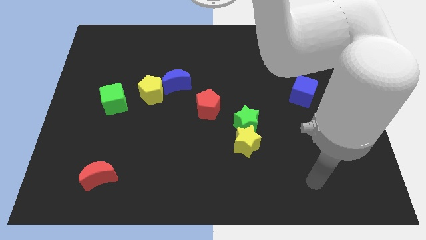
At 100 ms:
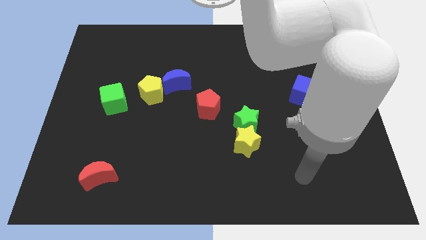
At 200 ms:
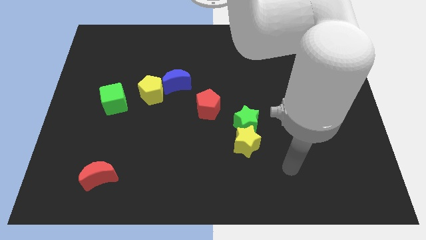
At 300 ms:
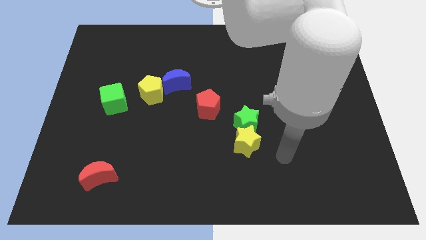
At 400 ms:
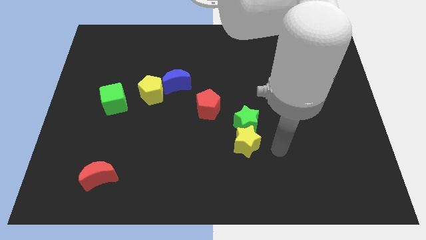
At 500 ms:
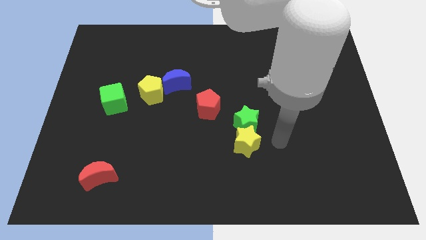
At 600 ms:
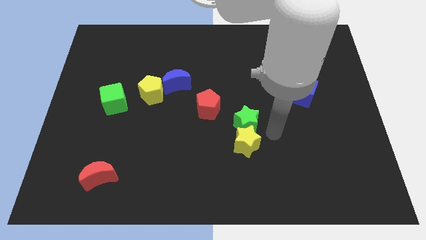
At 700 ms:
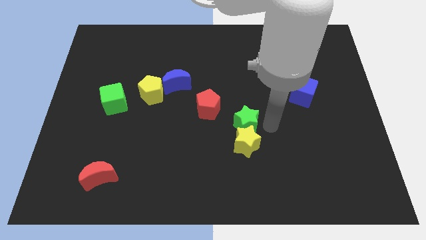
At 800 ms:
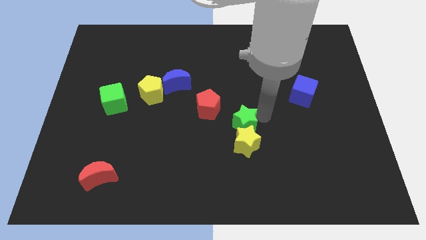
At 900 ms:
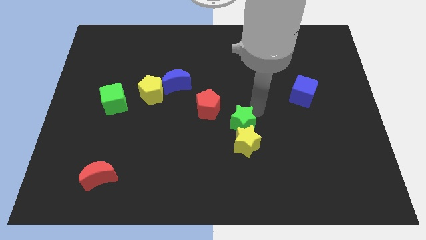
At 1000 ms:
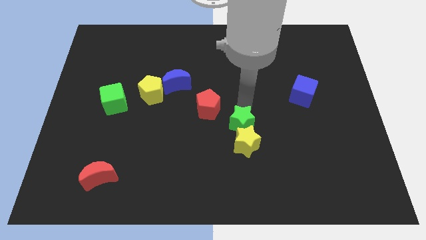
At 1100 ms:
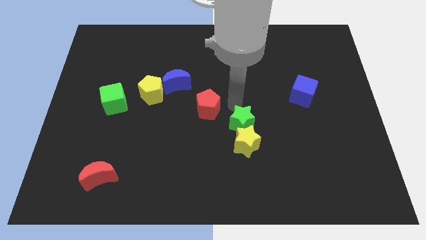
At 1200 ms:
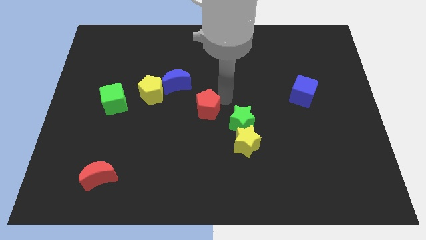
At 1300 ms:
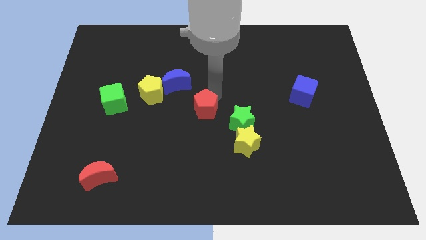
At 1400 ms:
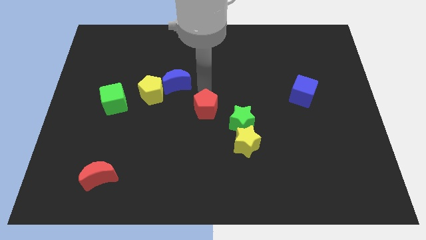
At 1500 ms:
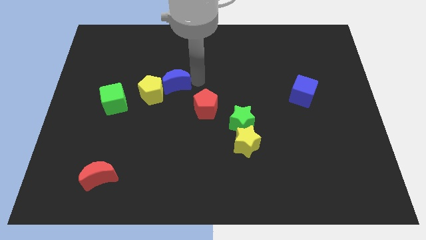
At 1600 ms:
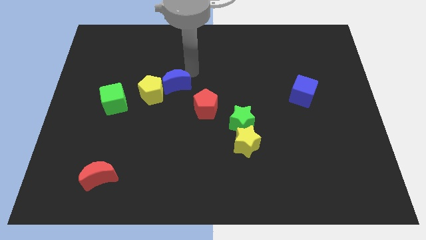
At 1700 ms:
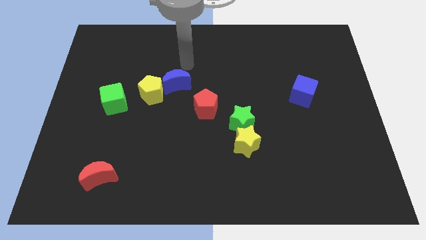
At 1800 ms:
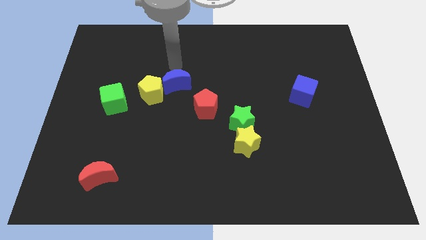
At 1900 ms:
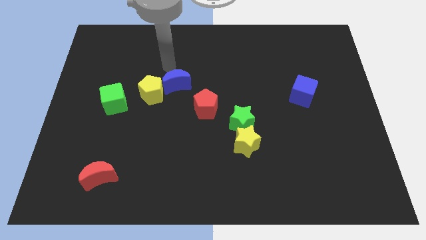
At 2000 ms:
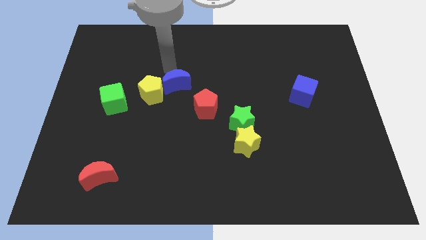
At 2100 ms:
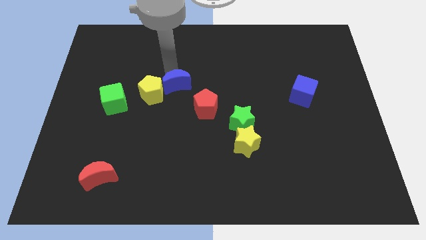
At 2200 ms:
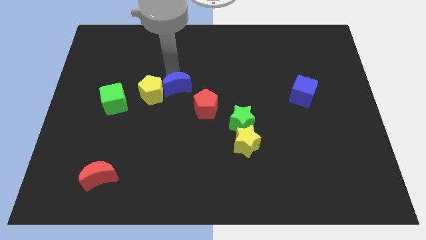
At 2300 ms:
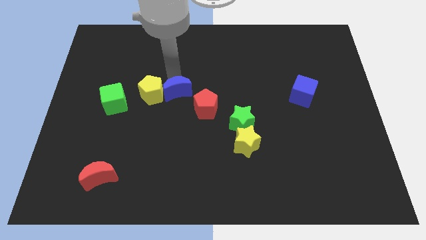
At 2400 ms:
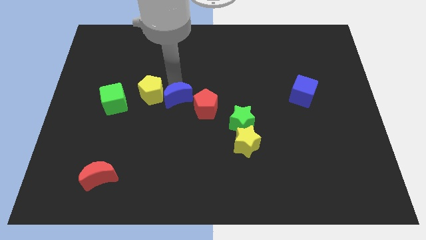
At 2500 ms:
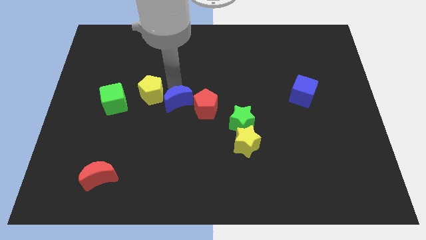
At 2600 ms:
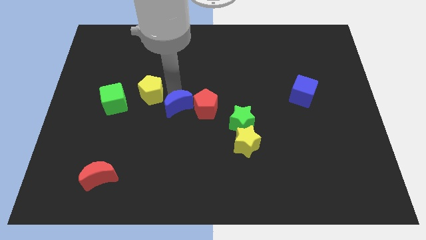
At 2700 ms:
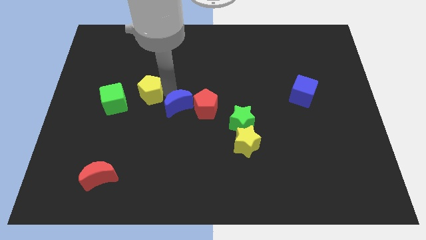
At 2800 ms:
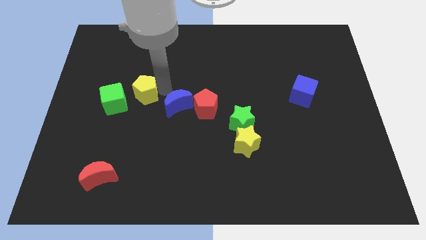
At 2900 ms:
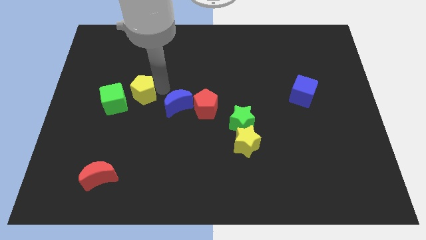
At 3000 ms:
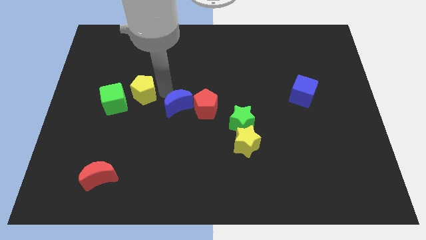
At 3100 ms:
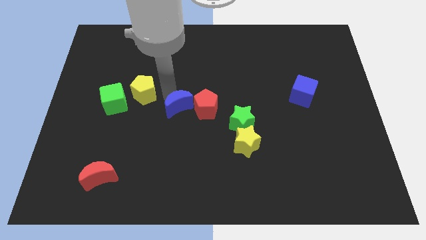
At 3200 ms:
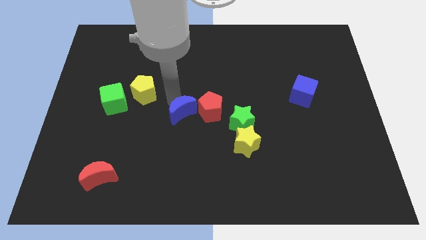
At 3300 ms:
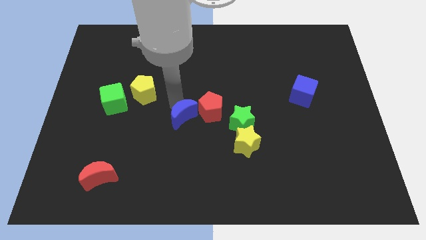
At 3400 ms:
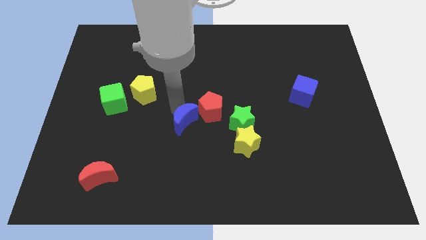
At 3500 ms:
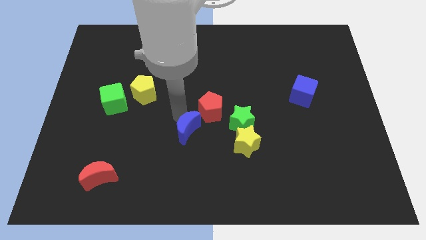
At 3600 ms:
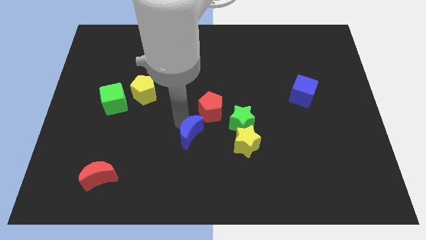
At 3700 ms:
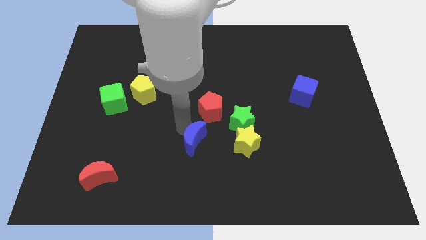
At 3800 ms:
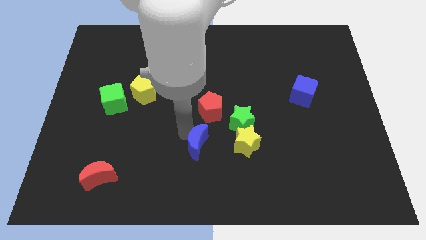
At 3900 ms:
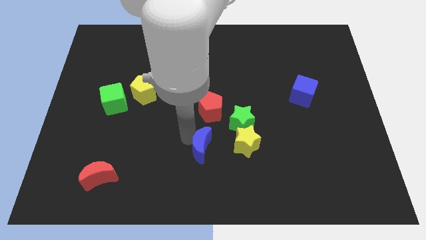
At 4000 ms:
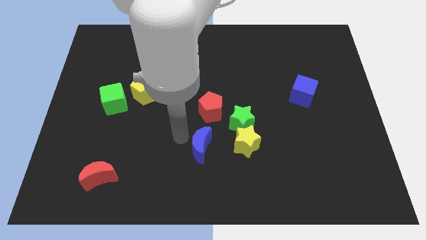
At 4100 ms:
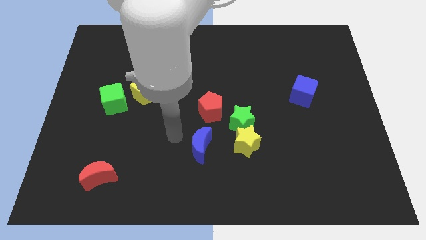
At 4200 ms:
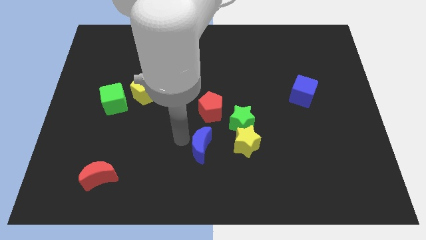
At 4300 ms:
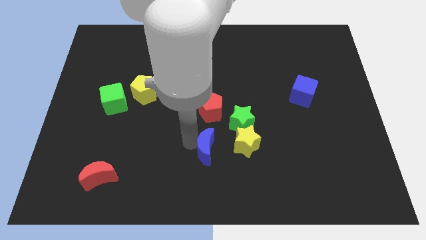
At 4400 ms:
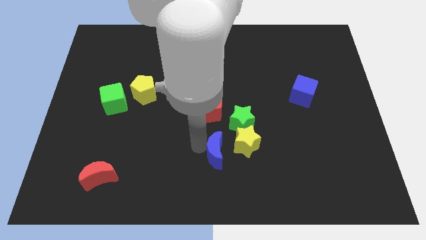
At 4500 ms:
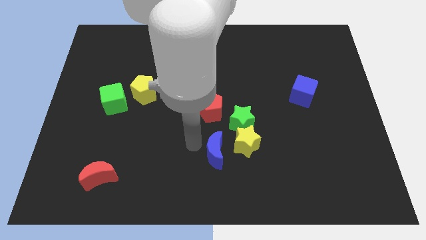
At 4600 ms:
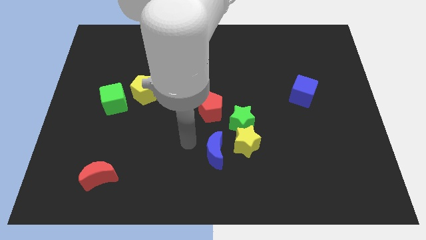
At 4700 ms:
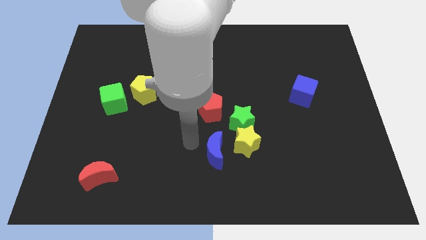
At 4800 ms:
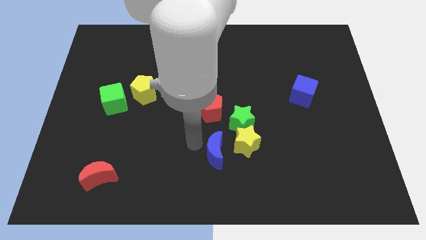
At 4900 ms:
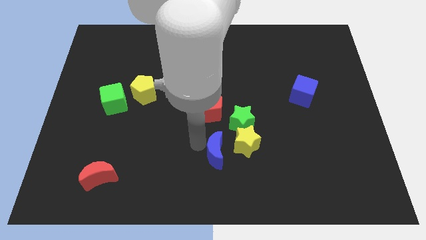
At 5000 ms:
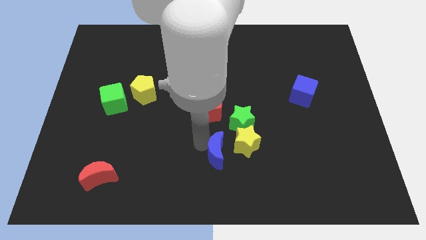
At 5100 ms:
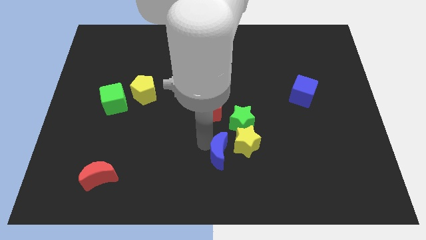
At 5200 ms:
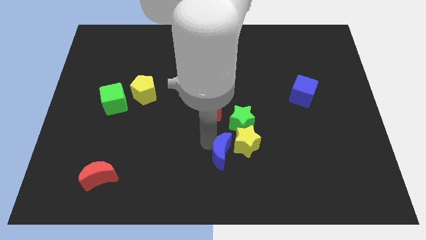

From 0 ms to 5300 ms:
push the blue moon downwards and right

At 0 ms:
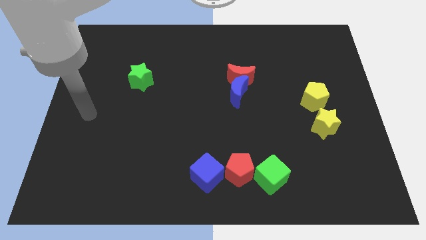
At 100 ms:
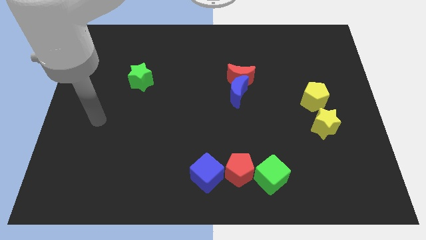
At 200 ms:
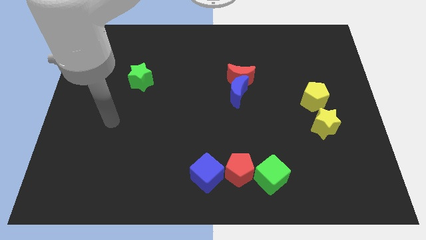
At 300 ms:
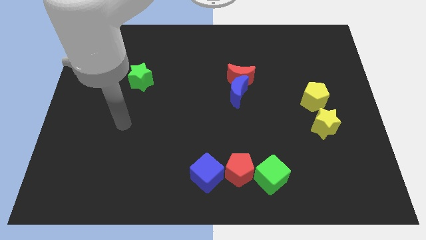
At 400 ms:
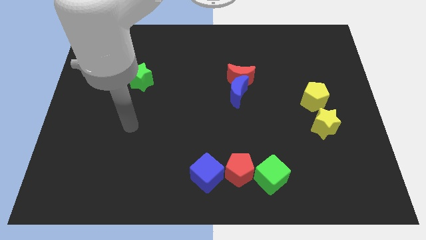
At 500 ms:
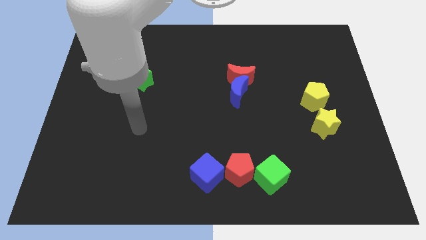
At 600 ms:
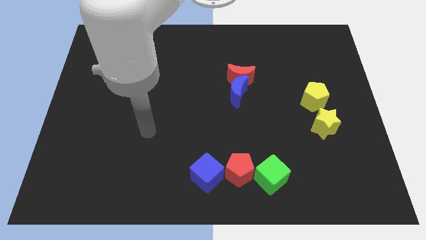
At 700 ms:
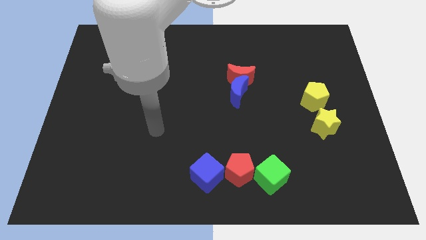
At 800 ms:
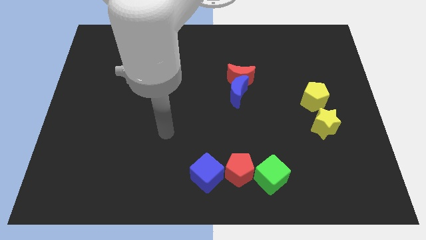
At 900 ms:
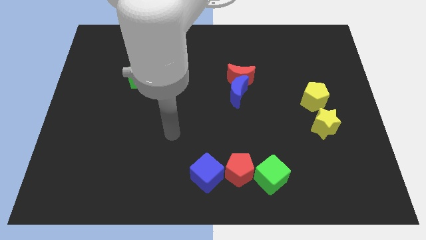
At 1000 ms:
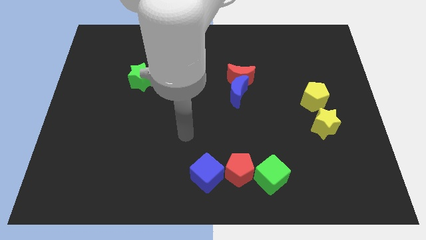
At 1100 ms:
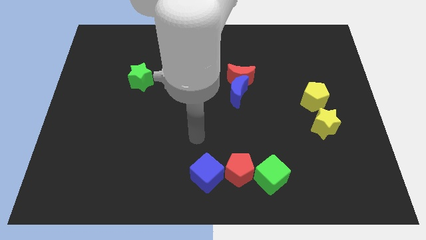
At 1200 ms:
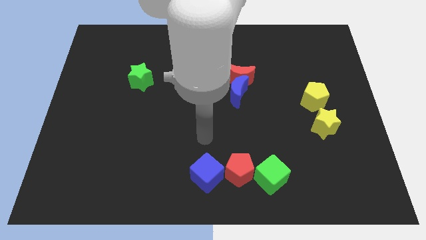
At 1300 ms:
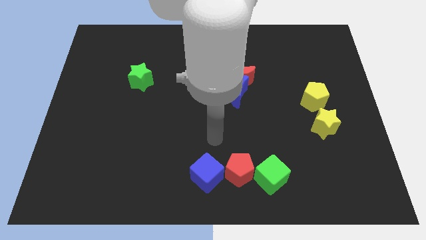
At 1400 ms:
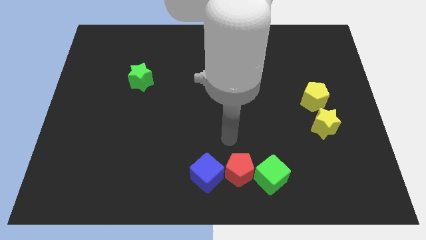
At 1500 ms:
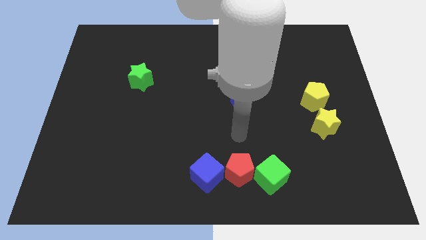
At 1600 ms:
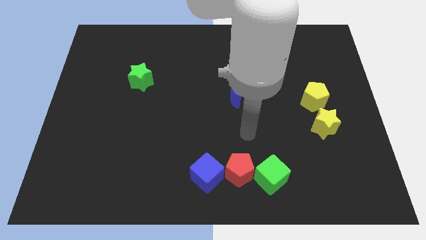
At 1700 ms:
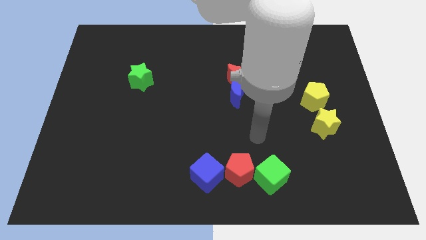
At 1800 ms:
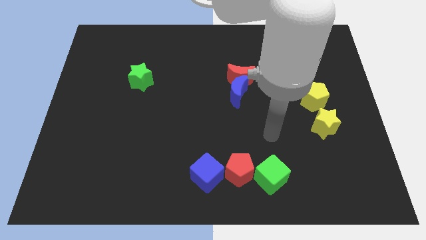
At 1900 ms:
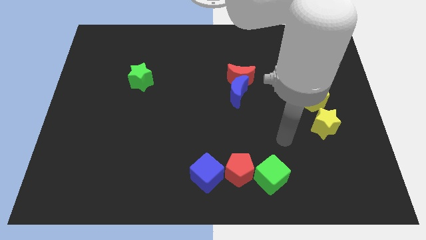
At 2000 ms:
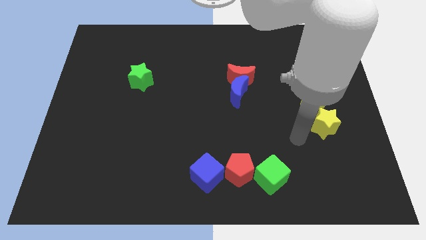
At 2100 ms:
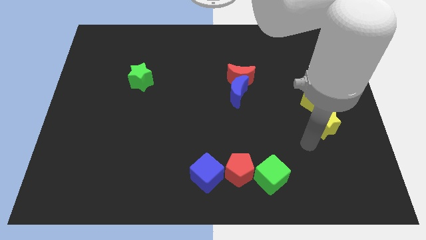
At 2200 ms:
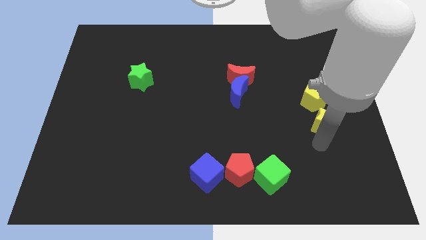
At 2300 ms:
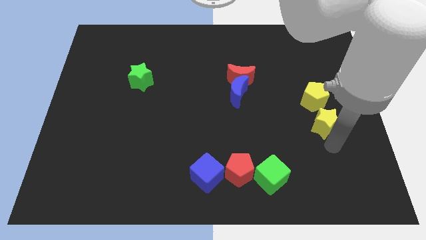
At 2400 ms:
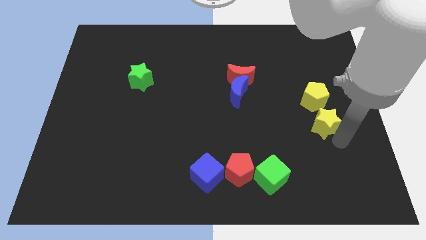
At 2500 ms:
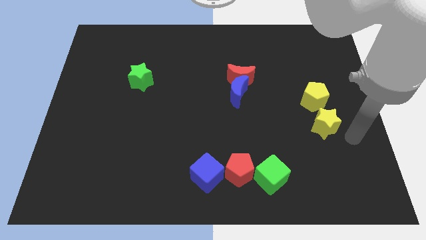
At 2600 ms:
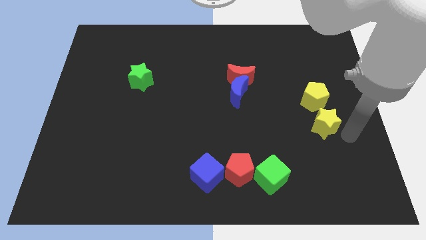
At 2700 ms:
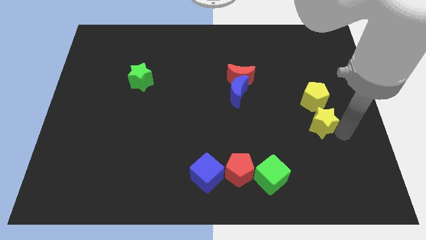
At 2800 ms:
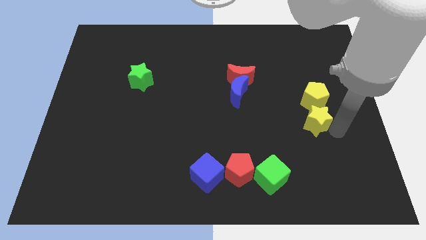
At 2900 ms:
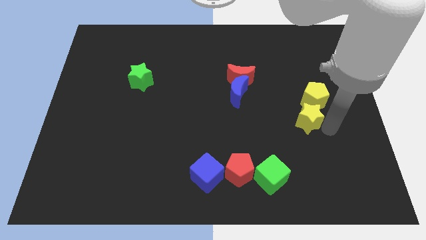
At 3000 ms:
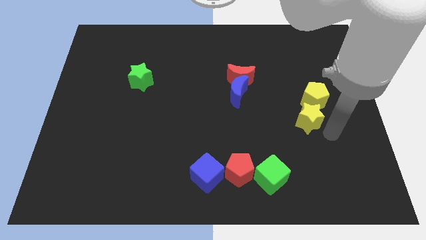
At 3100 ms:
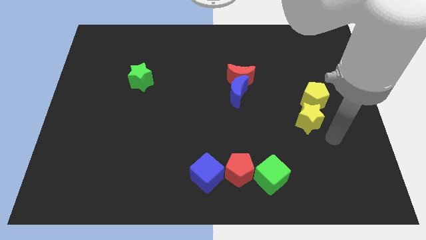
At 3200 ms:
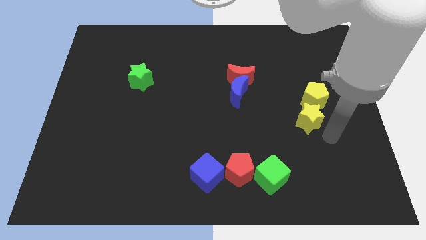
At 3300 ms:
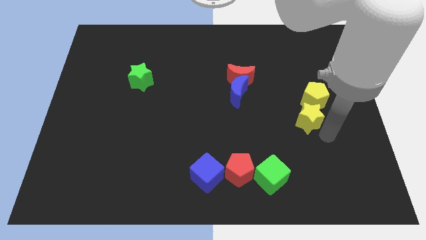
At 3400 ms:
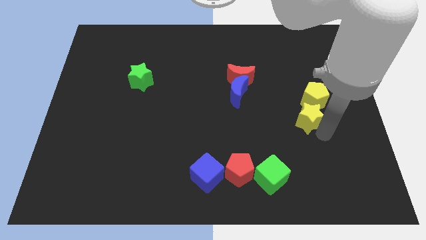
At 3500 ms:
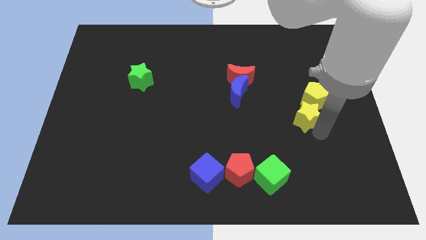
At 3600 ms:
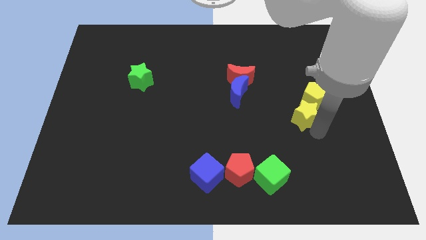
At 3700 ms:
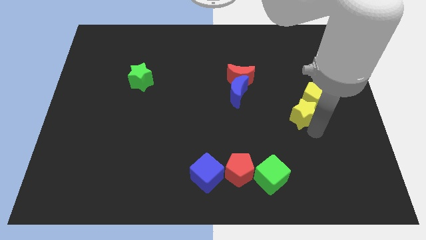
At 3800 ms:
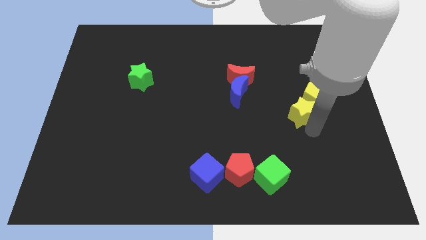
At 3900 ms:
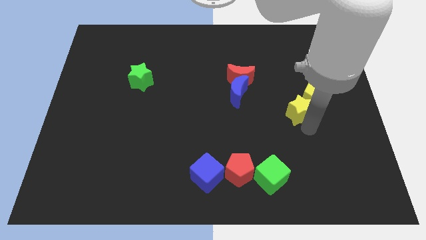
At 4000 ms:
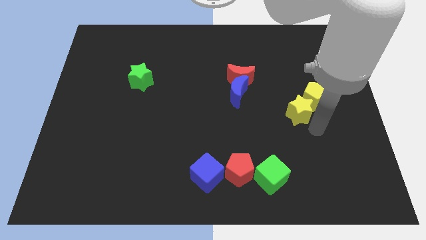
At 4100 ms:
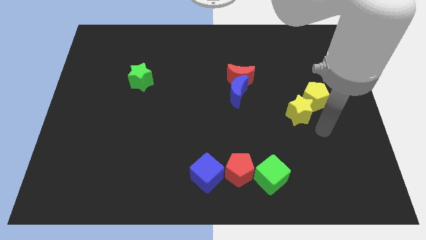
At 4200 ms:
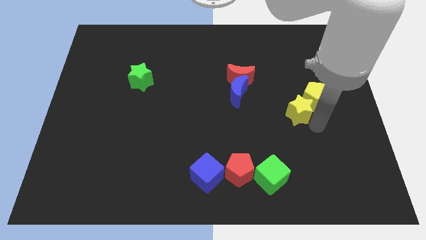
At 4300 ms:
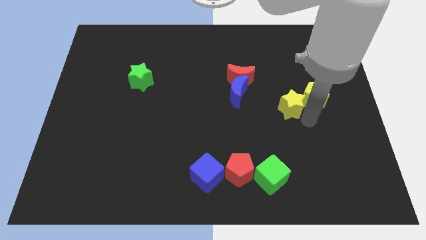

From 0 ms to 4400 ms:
slightly move the yellow star diagonally upwards and left
